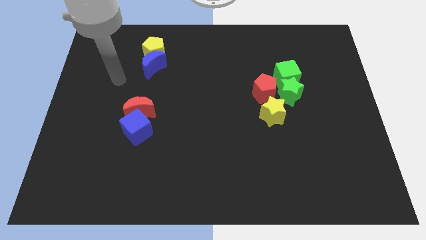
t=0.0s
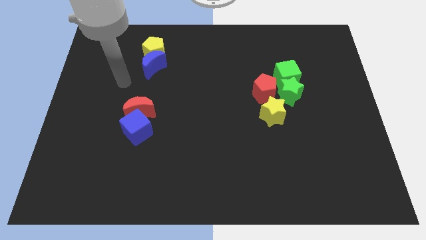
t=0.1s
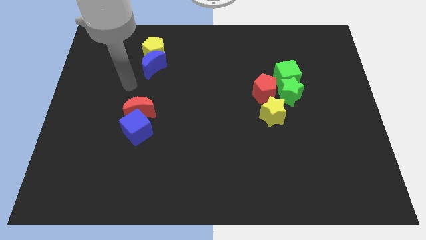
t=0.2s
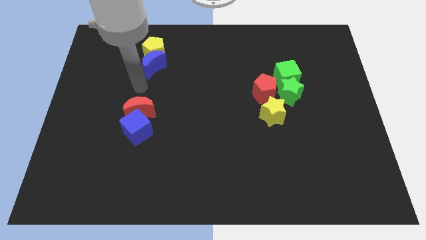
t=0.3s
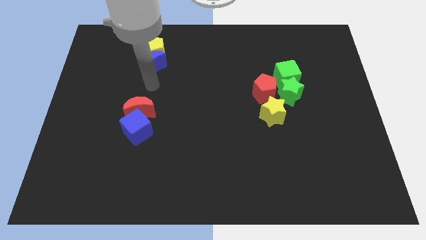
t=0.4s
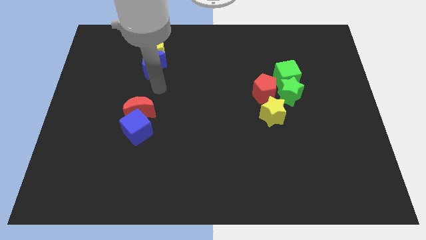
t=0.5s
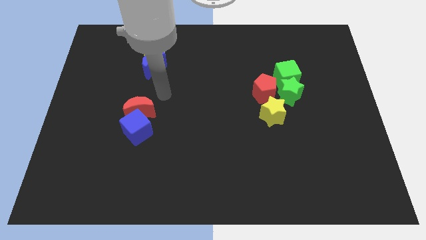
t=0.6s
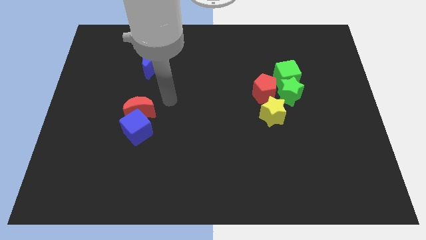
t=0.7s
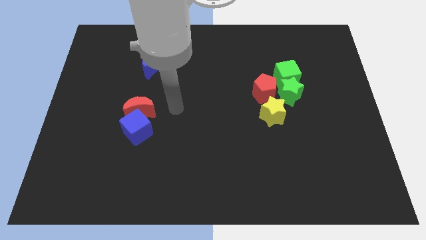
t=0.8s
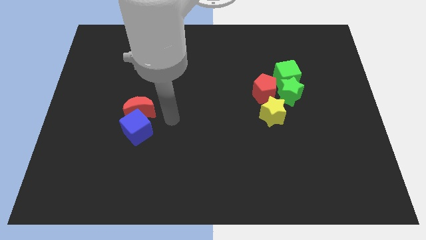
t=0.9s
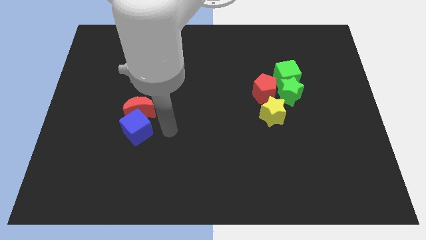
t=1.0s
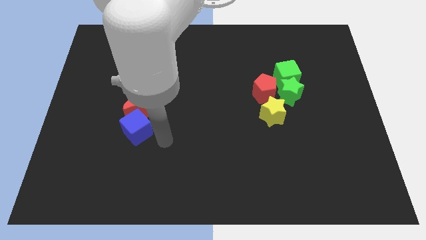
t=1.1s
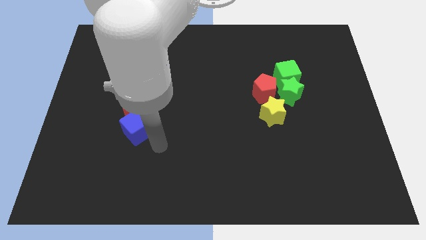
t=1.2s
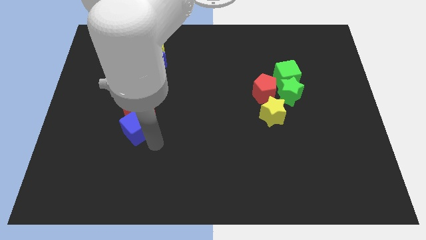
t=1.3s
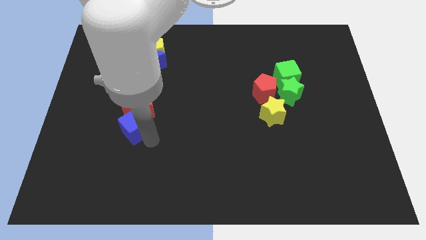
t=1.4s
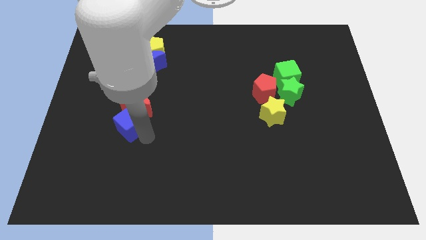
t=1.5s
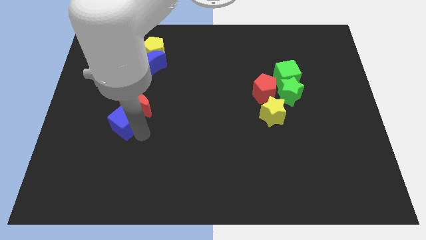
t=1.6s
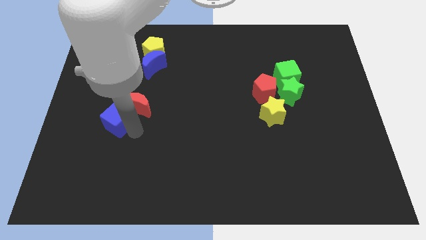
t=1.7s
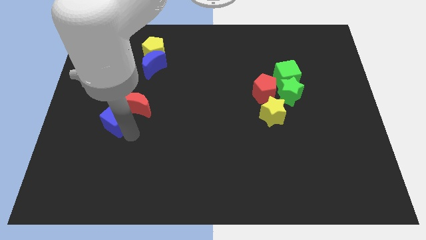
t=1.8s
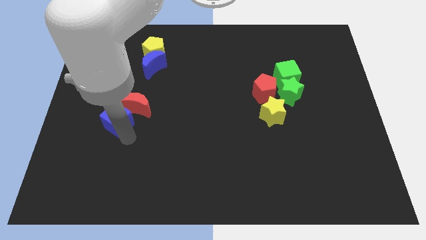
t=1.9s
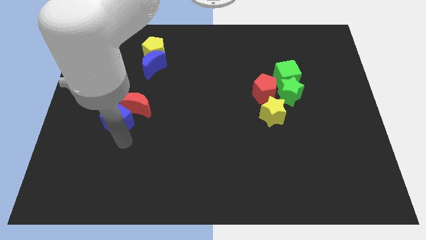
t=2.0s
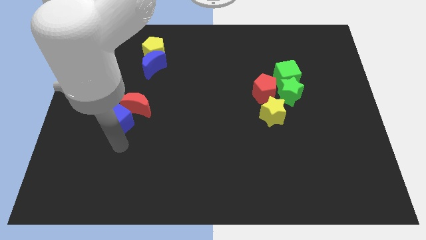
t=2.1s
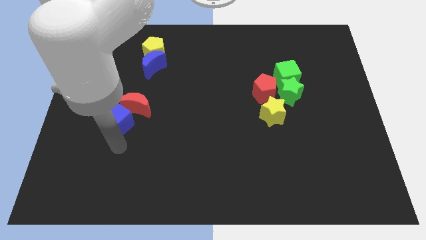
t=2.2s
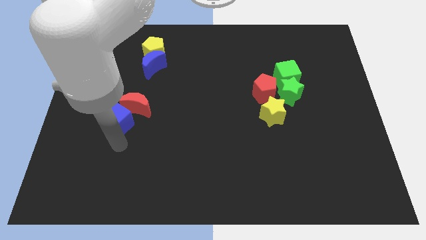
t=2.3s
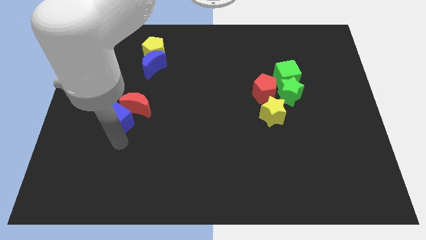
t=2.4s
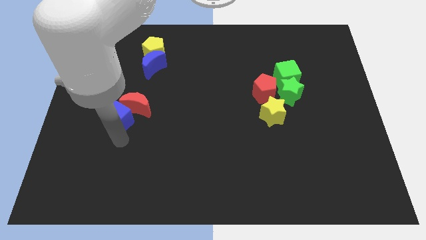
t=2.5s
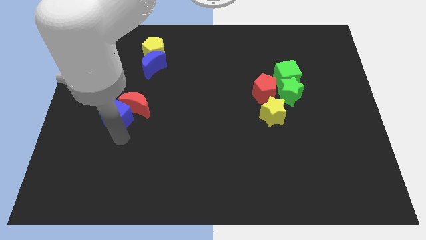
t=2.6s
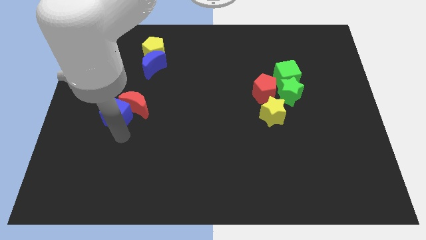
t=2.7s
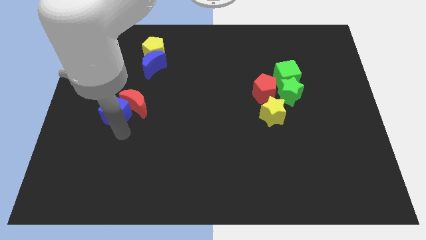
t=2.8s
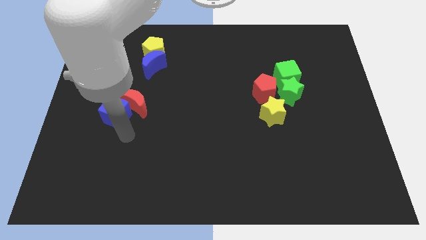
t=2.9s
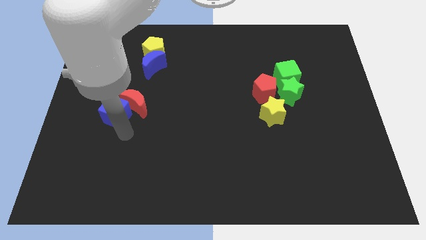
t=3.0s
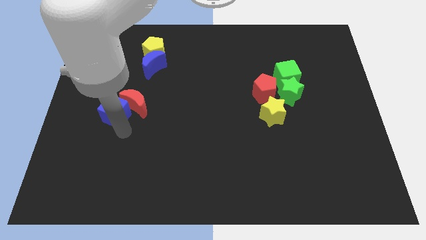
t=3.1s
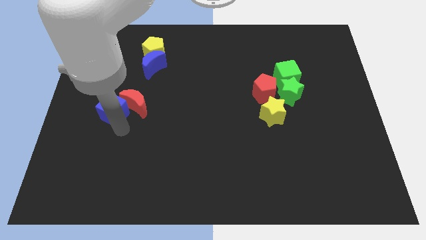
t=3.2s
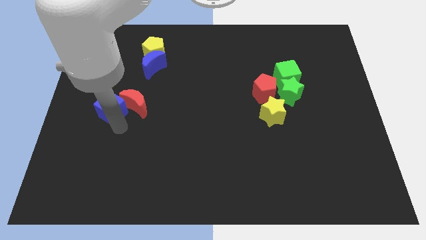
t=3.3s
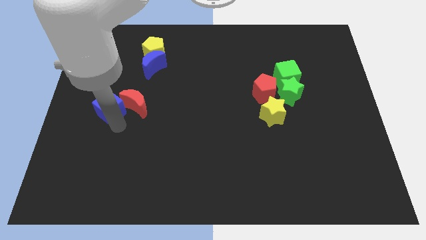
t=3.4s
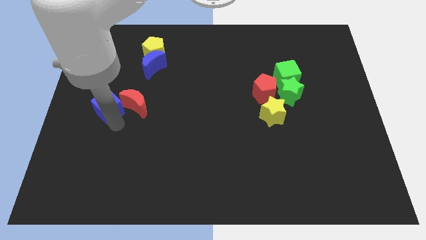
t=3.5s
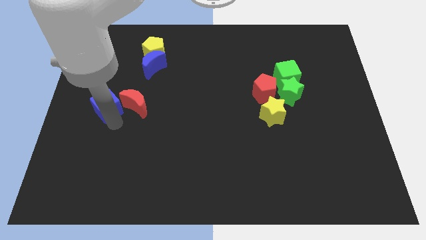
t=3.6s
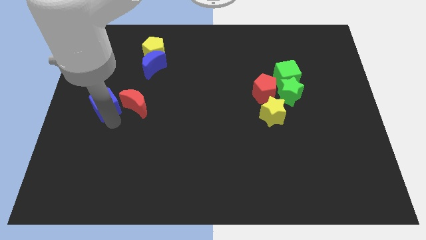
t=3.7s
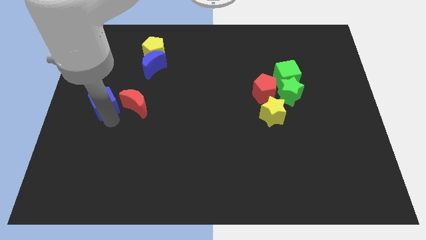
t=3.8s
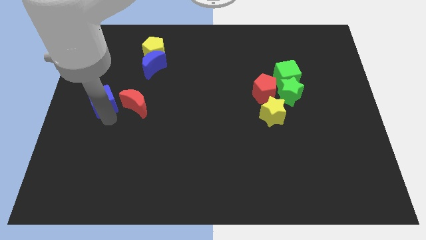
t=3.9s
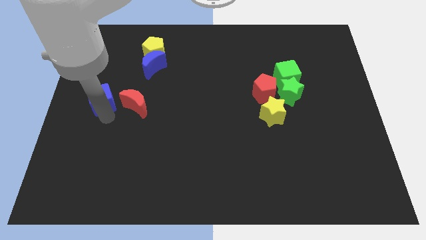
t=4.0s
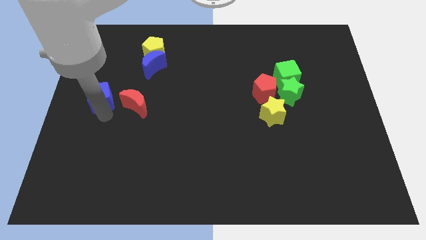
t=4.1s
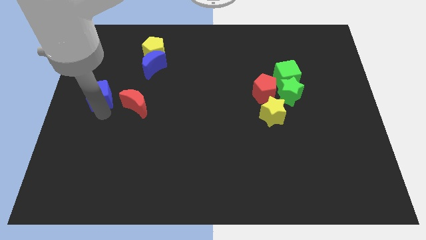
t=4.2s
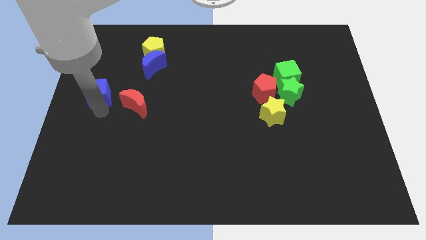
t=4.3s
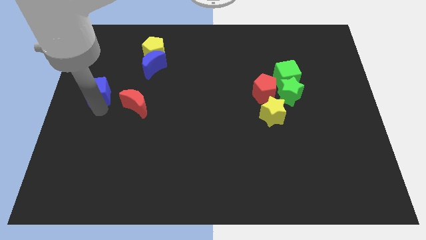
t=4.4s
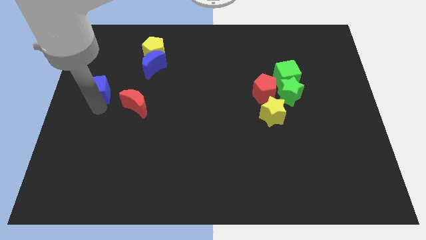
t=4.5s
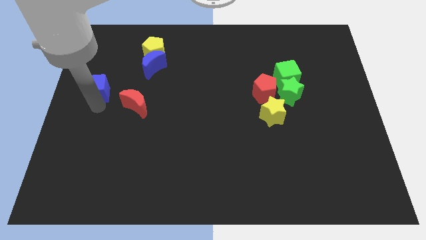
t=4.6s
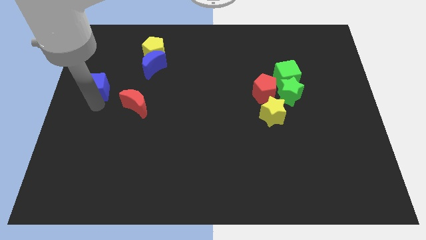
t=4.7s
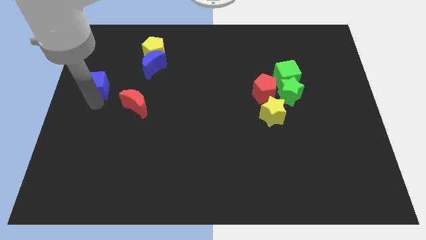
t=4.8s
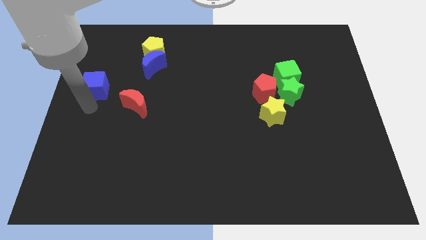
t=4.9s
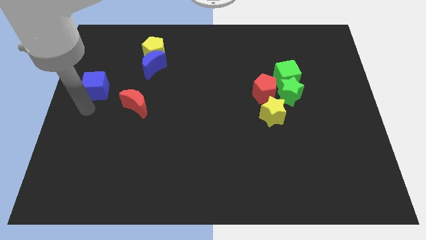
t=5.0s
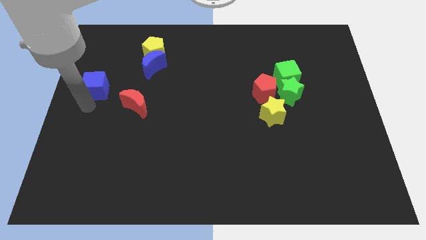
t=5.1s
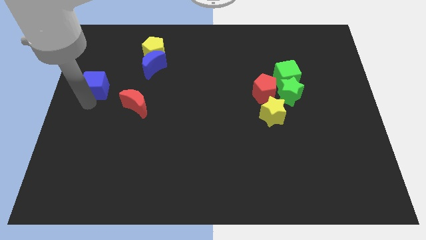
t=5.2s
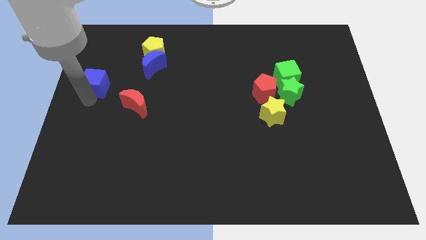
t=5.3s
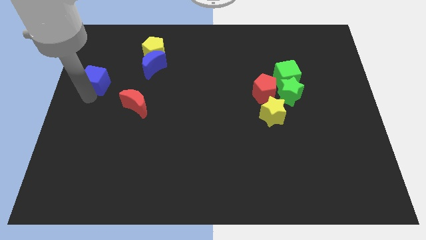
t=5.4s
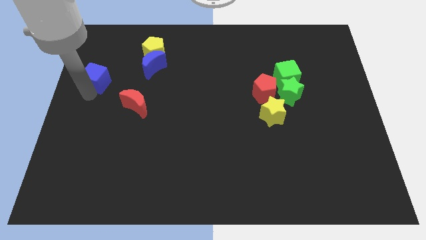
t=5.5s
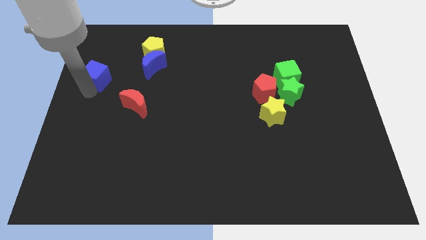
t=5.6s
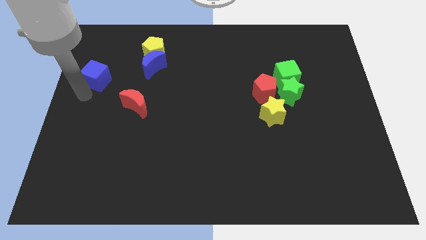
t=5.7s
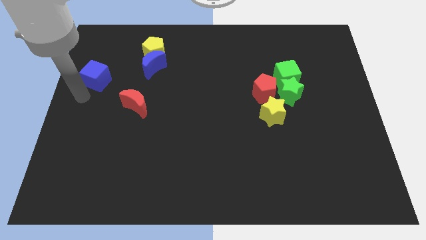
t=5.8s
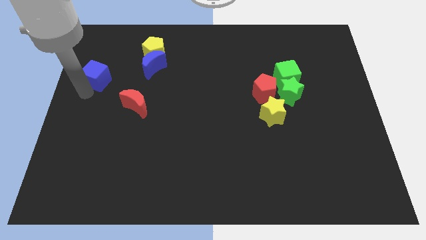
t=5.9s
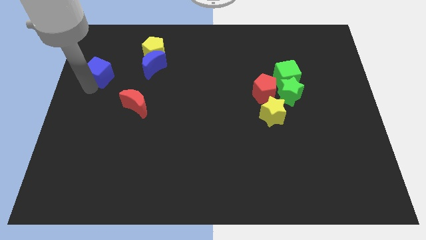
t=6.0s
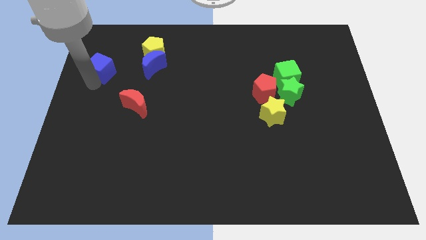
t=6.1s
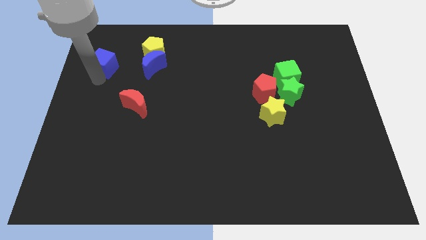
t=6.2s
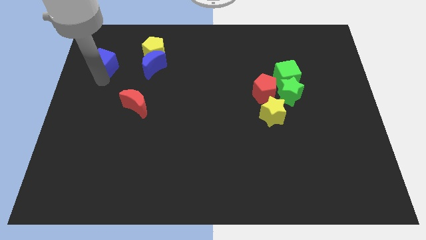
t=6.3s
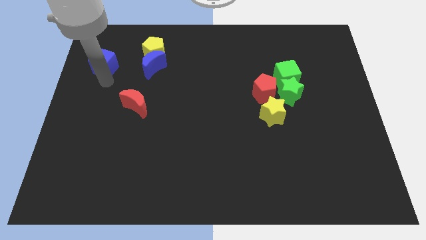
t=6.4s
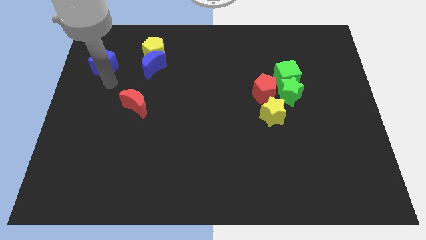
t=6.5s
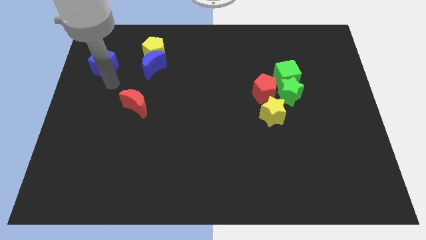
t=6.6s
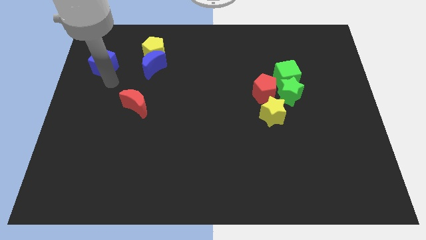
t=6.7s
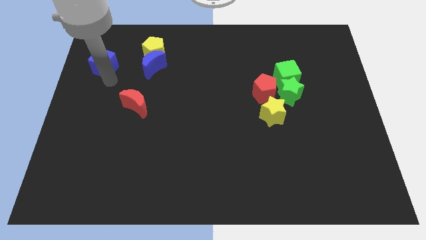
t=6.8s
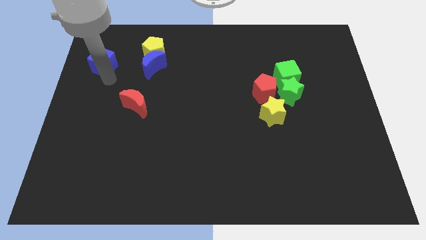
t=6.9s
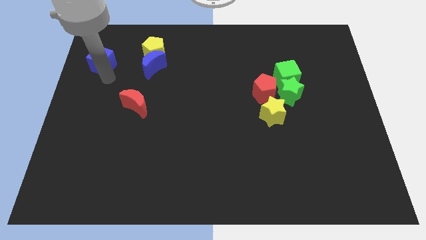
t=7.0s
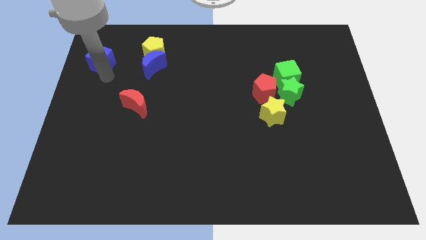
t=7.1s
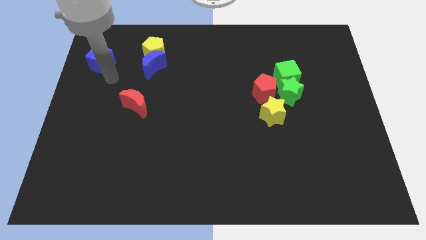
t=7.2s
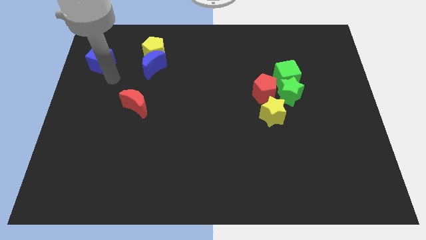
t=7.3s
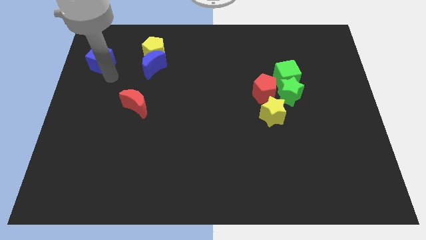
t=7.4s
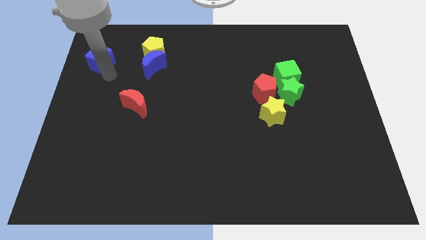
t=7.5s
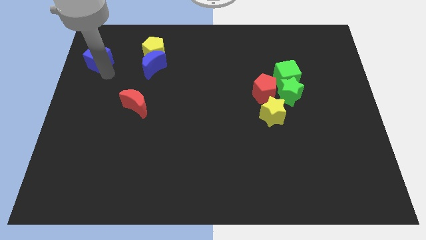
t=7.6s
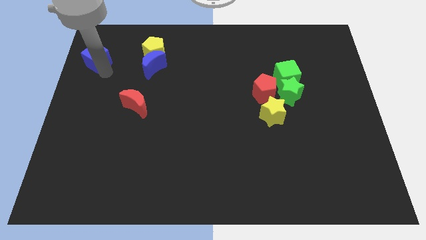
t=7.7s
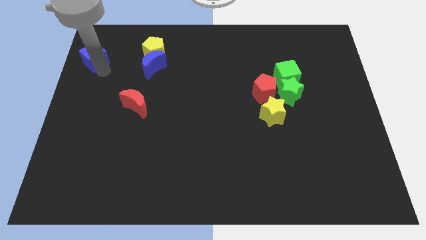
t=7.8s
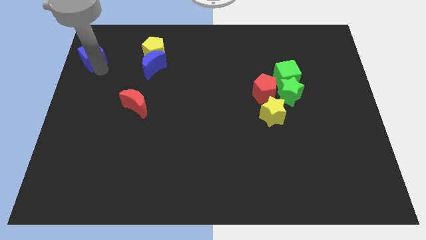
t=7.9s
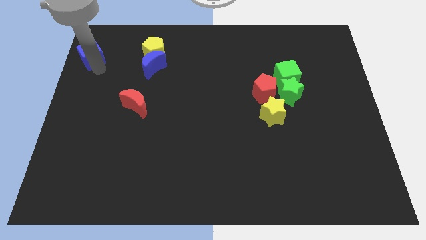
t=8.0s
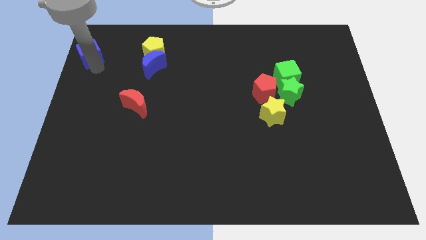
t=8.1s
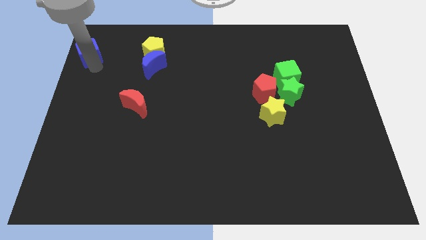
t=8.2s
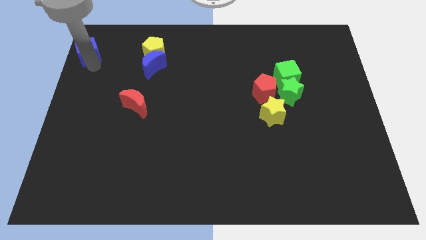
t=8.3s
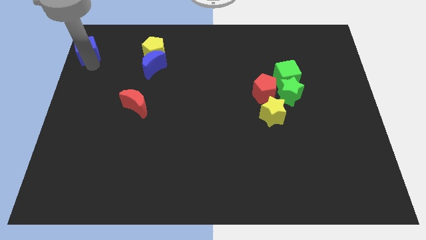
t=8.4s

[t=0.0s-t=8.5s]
push the blue cube to the upper left corner
